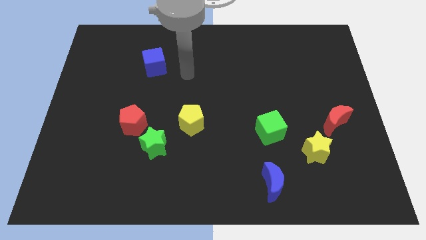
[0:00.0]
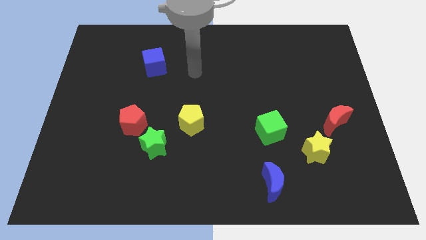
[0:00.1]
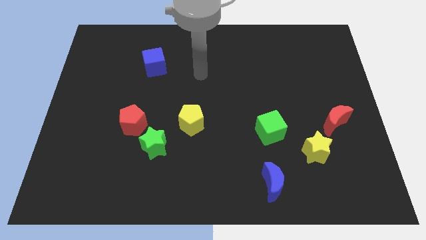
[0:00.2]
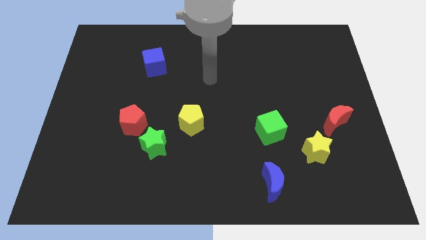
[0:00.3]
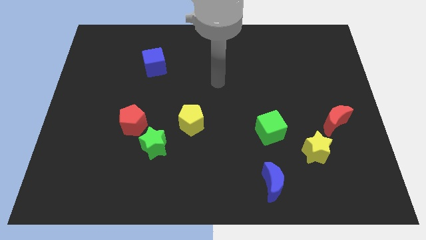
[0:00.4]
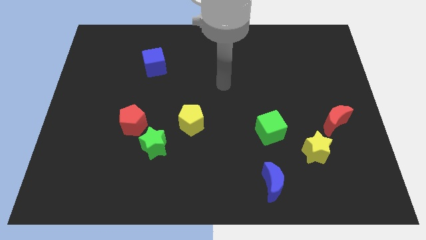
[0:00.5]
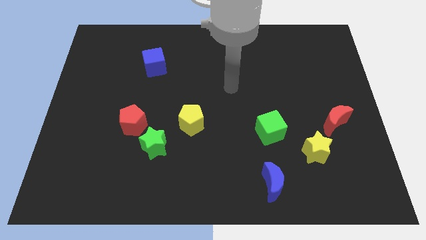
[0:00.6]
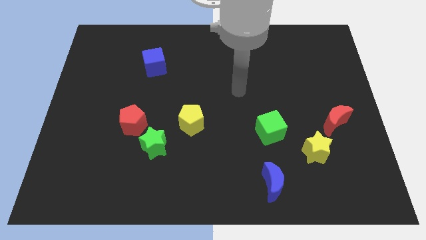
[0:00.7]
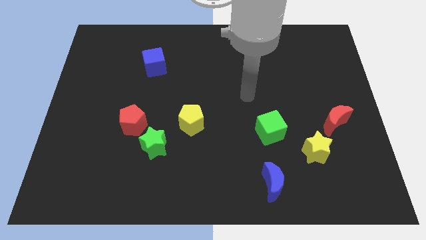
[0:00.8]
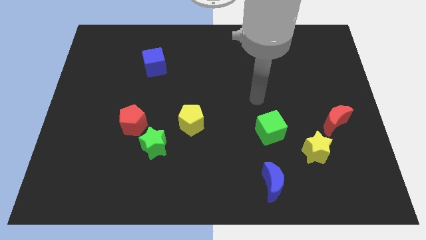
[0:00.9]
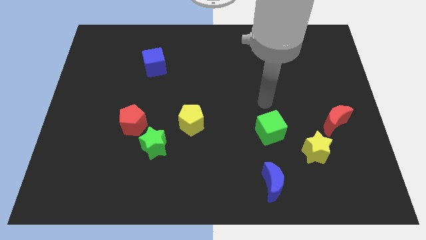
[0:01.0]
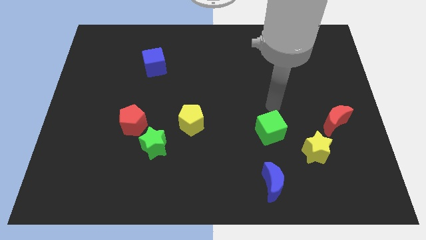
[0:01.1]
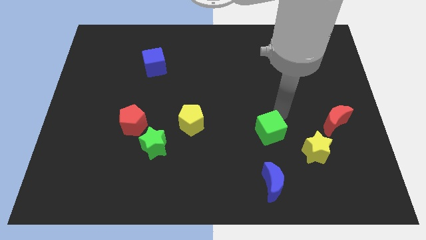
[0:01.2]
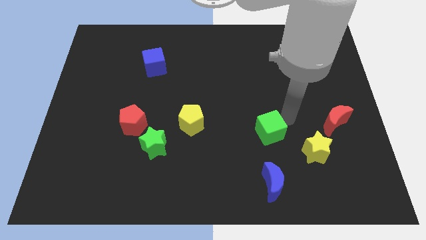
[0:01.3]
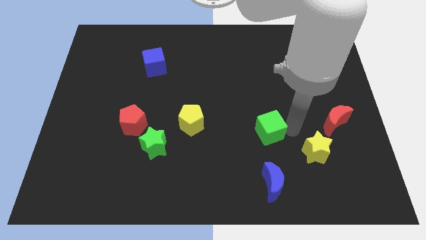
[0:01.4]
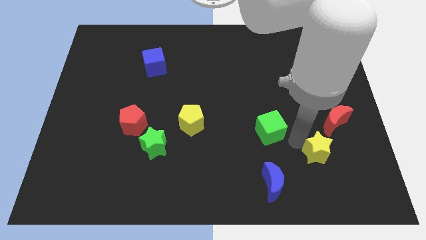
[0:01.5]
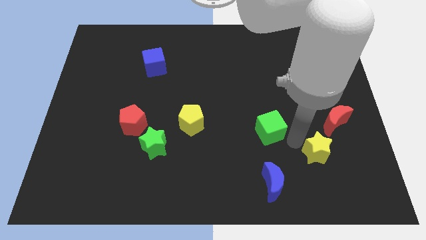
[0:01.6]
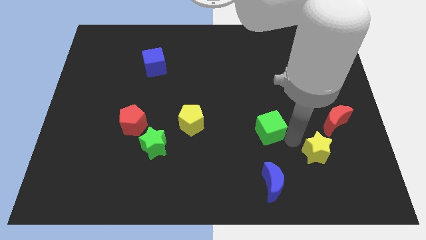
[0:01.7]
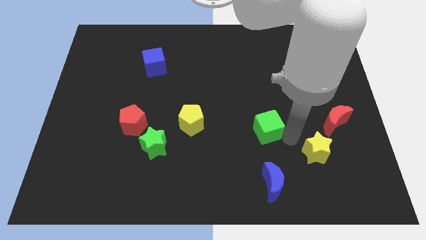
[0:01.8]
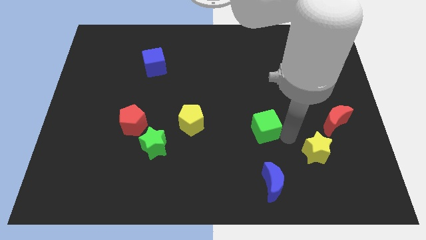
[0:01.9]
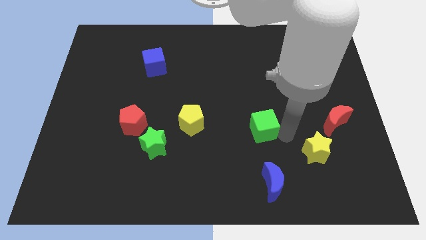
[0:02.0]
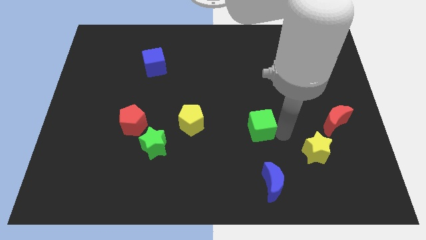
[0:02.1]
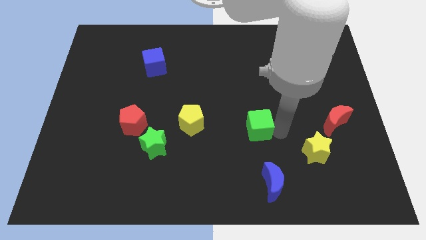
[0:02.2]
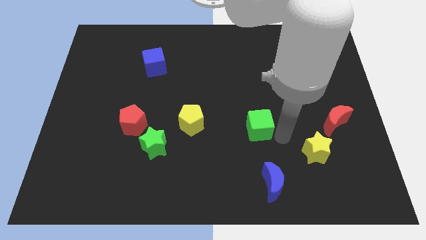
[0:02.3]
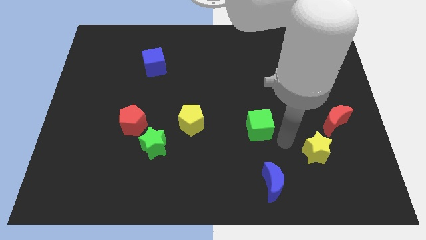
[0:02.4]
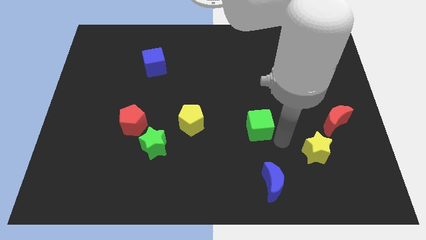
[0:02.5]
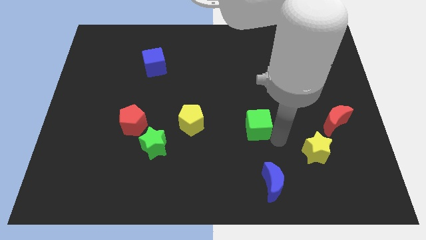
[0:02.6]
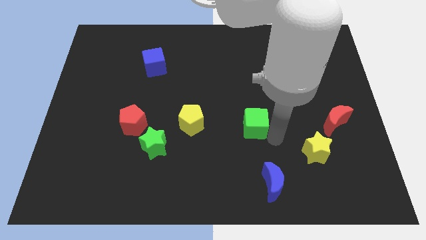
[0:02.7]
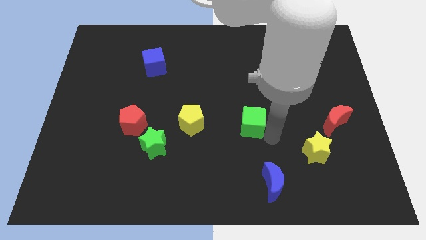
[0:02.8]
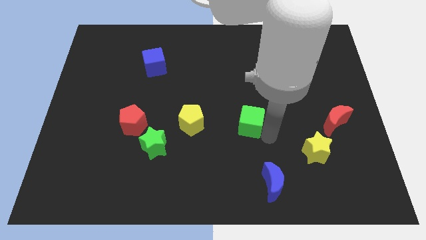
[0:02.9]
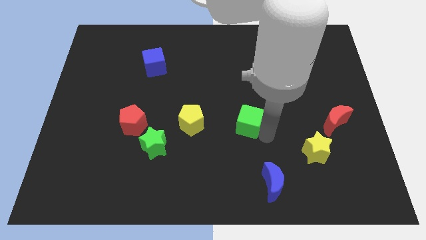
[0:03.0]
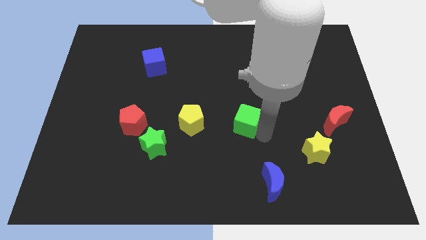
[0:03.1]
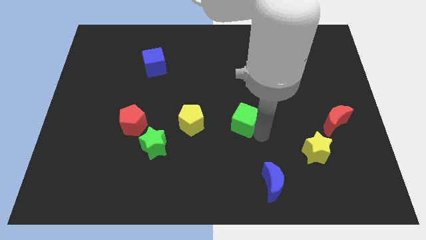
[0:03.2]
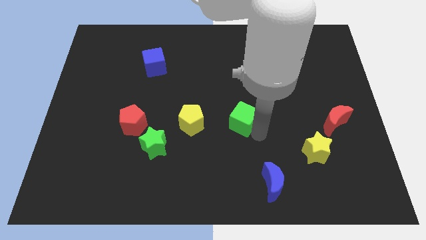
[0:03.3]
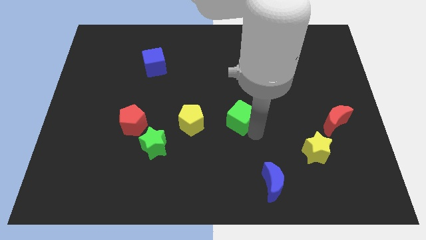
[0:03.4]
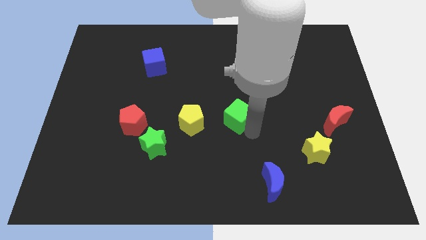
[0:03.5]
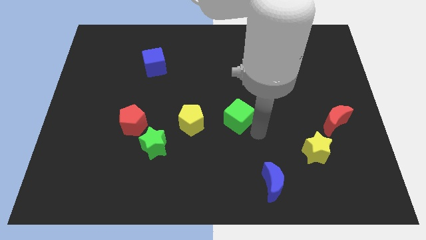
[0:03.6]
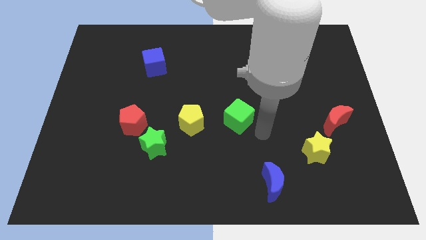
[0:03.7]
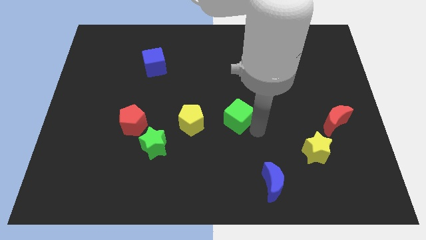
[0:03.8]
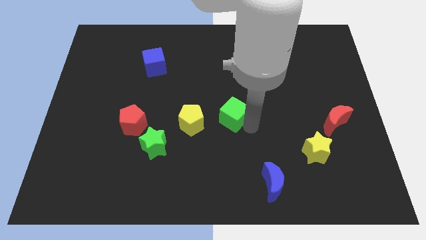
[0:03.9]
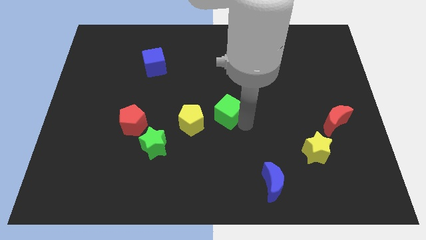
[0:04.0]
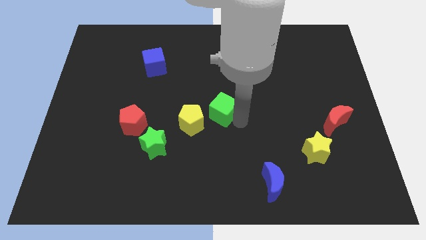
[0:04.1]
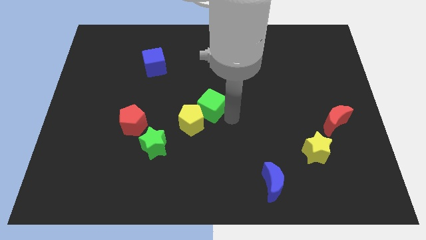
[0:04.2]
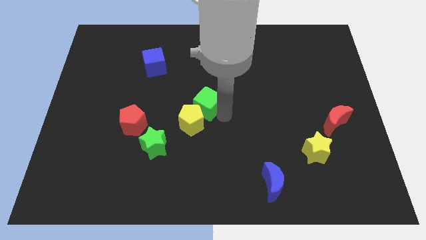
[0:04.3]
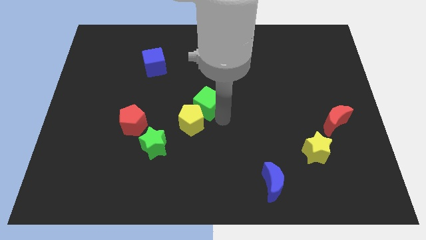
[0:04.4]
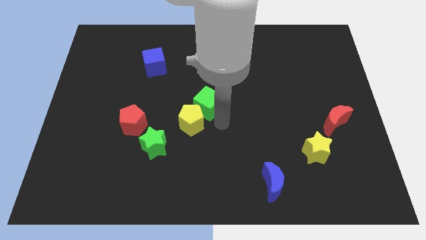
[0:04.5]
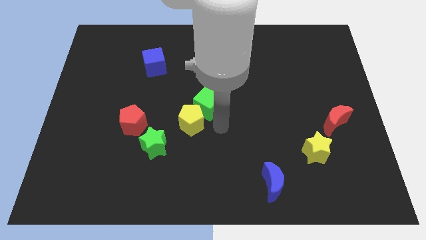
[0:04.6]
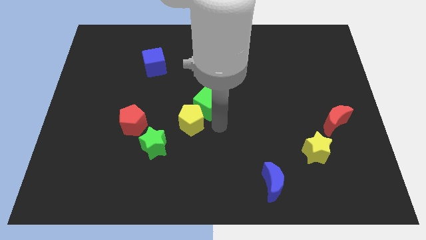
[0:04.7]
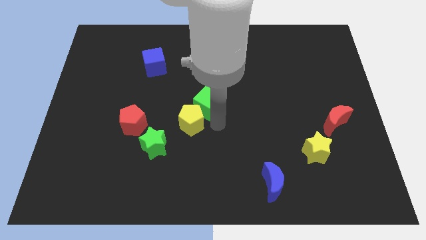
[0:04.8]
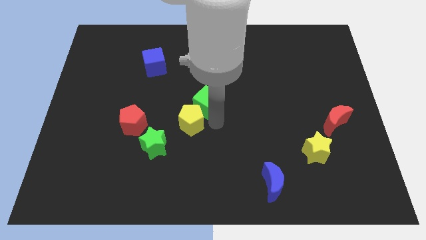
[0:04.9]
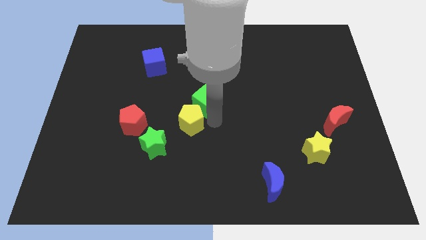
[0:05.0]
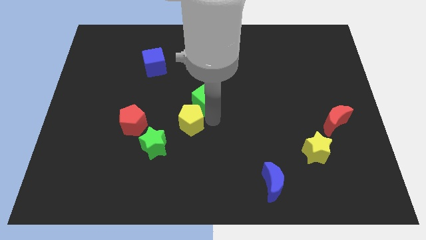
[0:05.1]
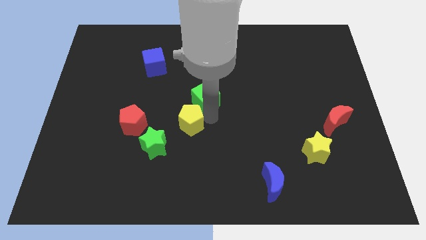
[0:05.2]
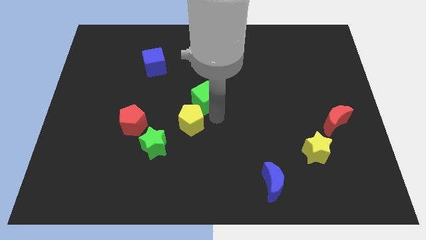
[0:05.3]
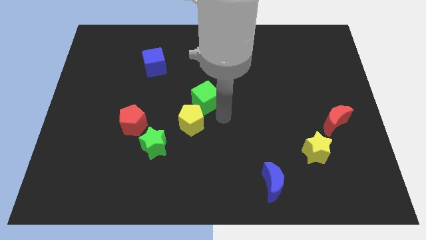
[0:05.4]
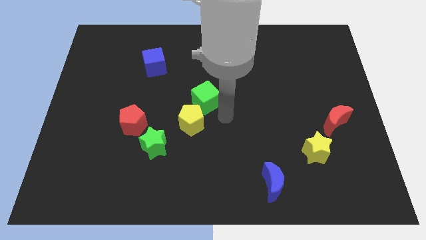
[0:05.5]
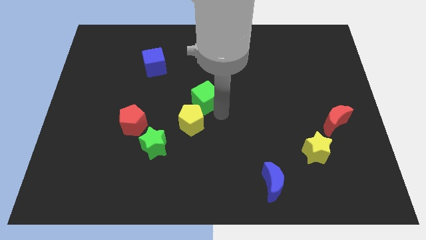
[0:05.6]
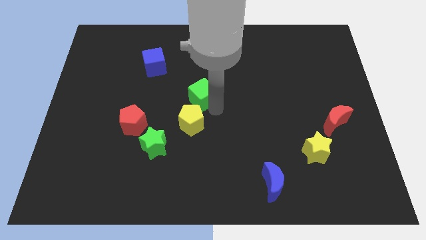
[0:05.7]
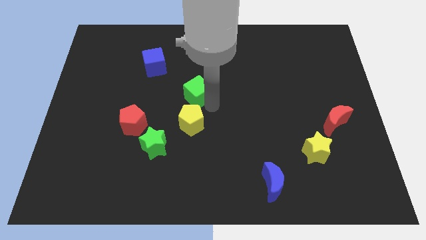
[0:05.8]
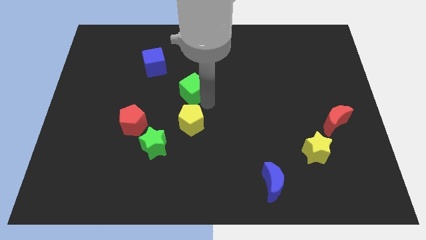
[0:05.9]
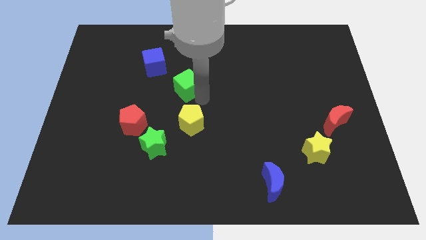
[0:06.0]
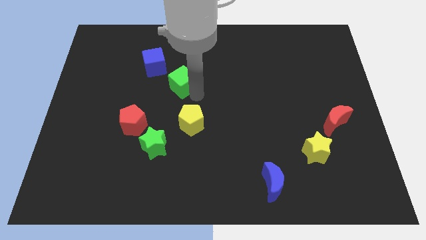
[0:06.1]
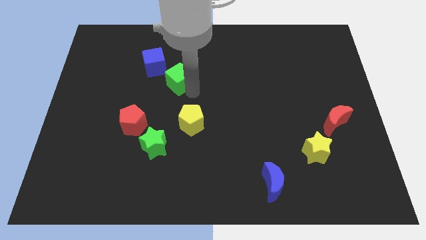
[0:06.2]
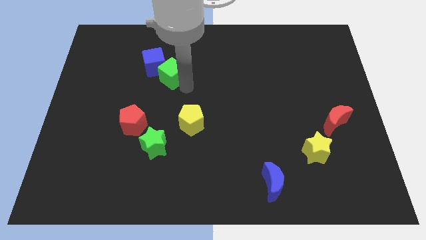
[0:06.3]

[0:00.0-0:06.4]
slide the green cube to the blue cube
